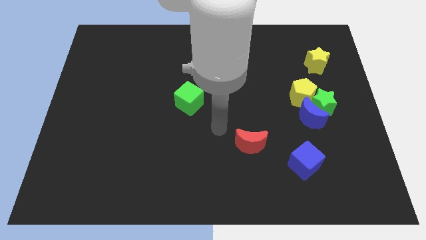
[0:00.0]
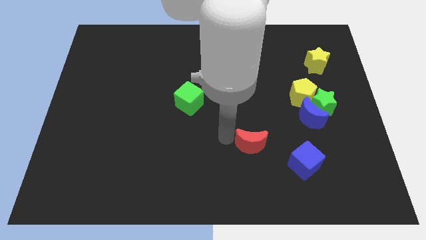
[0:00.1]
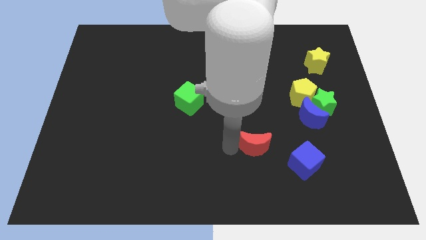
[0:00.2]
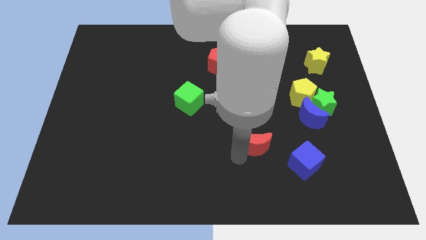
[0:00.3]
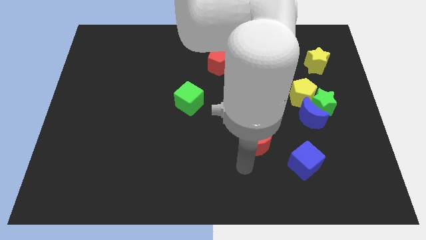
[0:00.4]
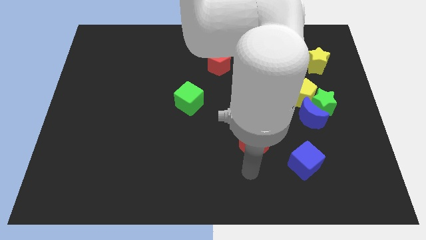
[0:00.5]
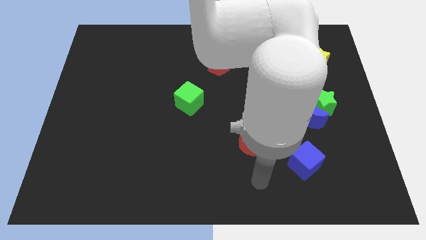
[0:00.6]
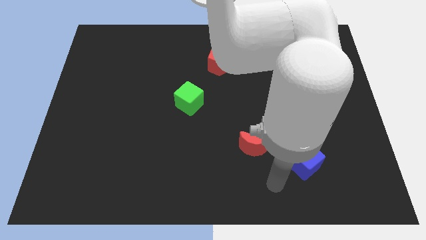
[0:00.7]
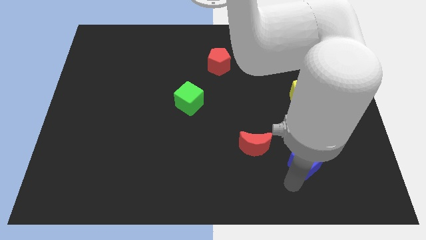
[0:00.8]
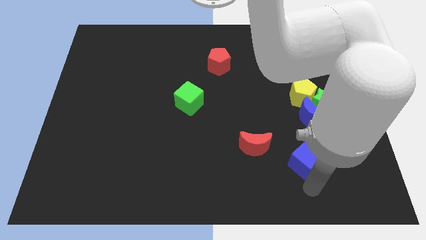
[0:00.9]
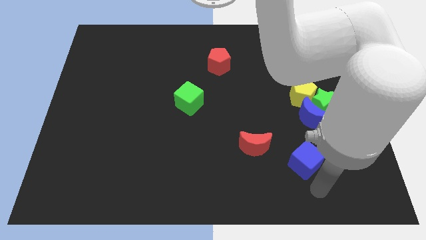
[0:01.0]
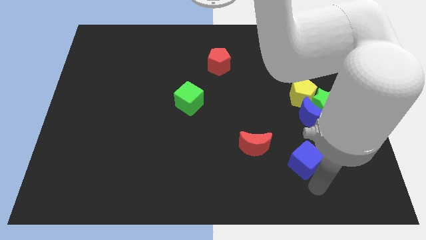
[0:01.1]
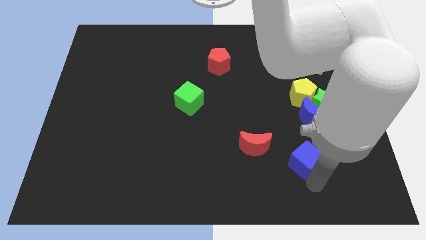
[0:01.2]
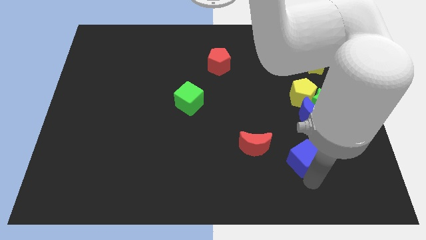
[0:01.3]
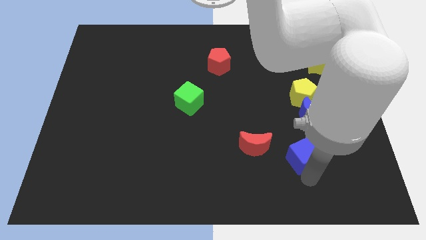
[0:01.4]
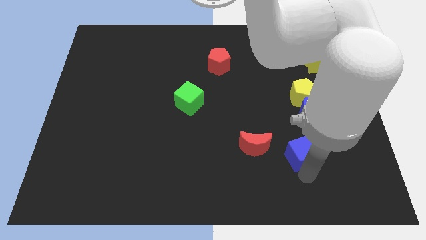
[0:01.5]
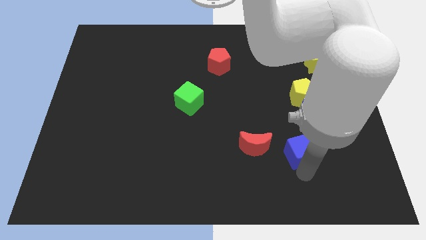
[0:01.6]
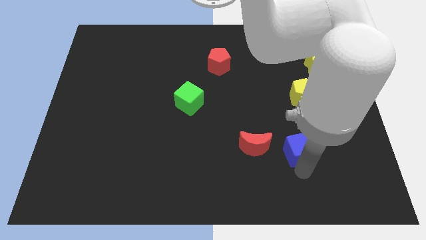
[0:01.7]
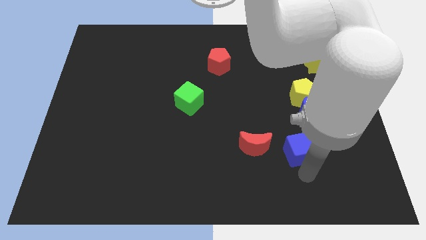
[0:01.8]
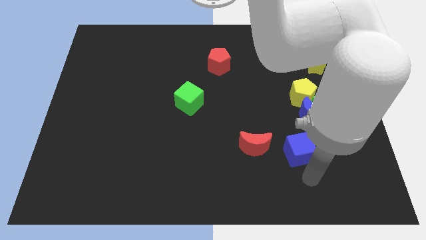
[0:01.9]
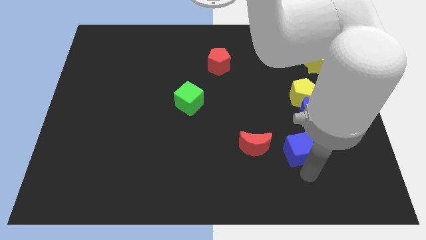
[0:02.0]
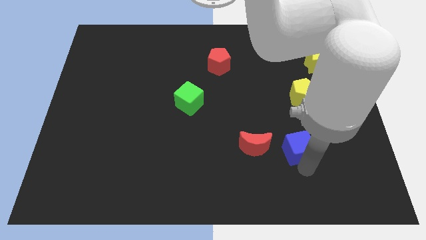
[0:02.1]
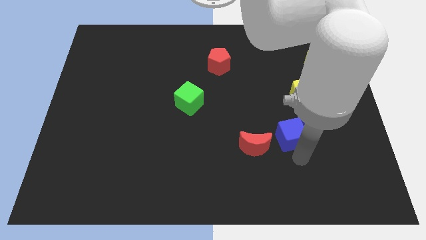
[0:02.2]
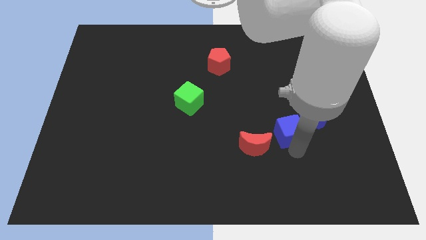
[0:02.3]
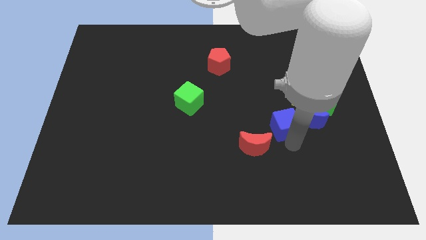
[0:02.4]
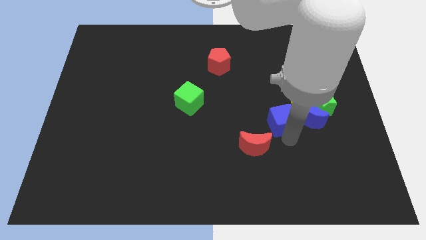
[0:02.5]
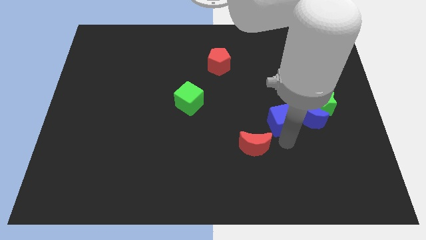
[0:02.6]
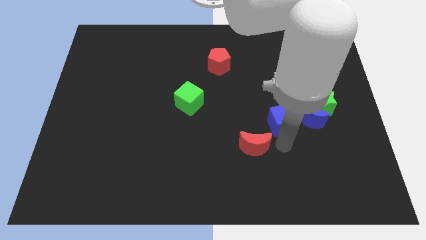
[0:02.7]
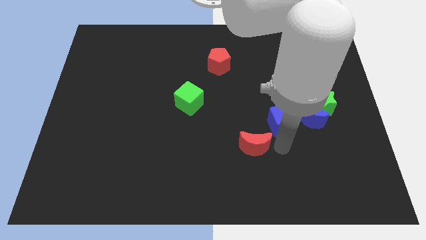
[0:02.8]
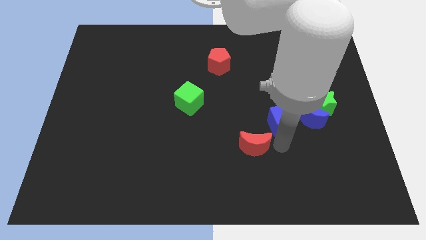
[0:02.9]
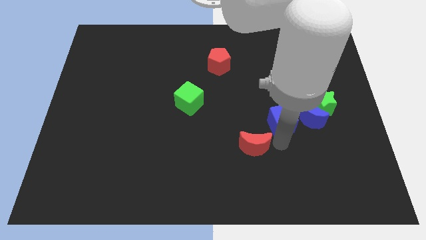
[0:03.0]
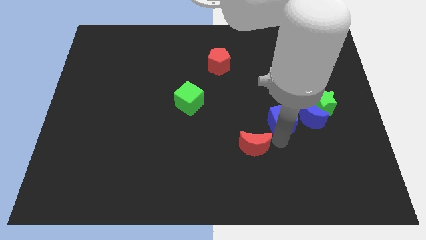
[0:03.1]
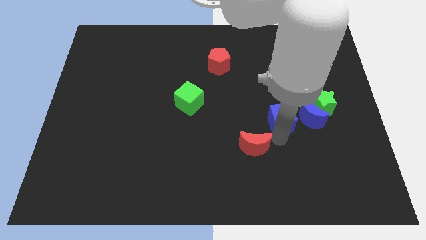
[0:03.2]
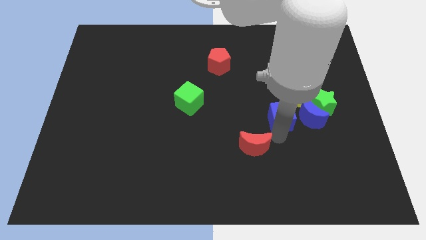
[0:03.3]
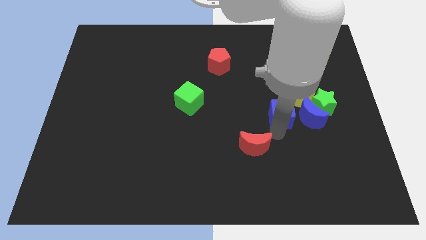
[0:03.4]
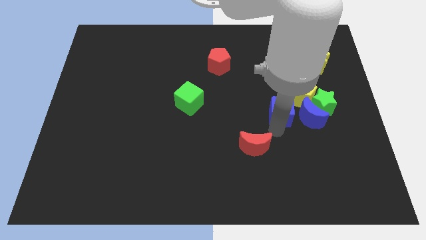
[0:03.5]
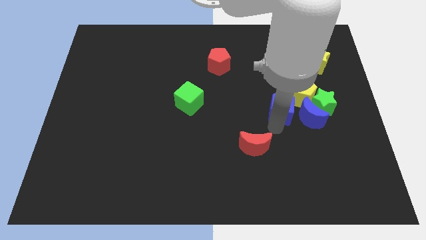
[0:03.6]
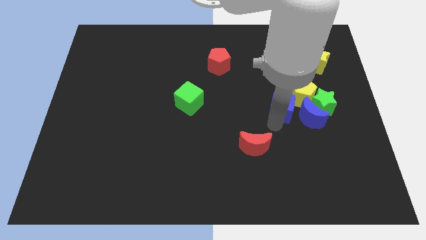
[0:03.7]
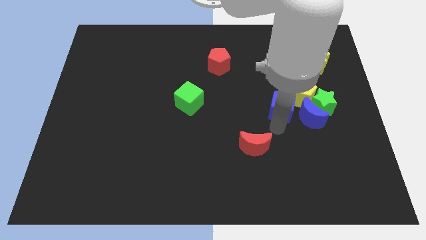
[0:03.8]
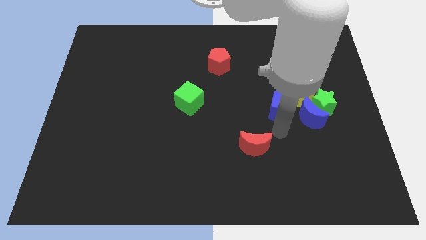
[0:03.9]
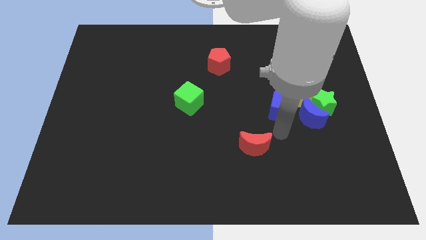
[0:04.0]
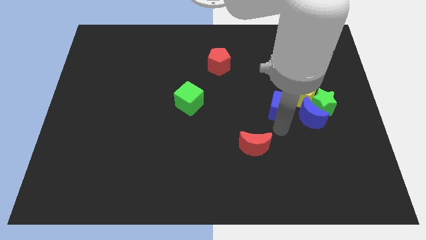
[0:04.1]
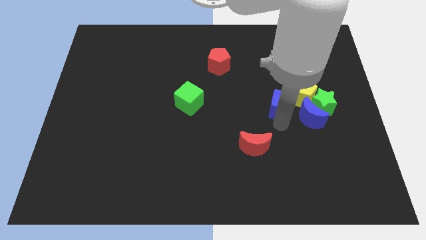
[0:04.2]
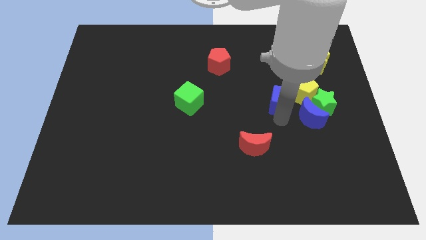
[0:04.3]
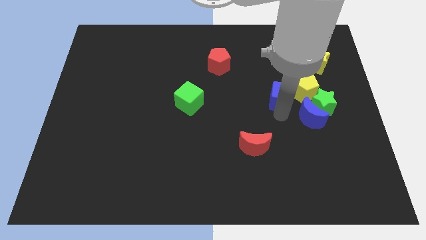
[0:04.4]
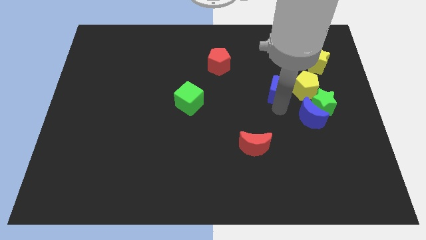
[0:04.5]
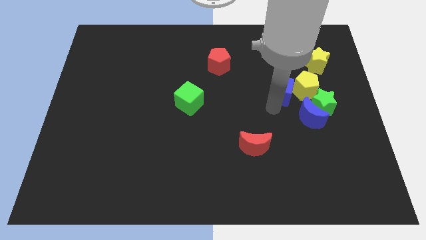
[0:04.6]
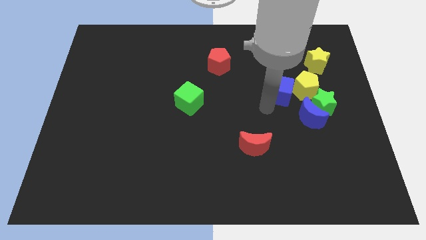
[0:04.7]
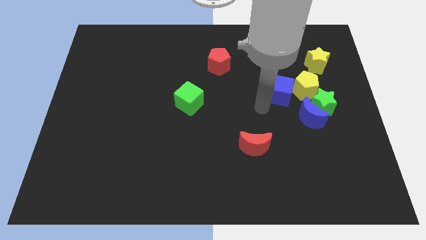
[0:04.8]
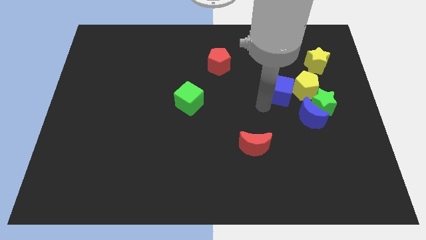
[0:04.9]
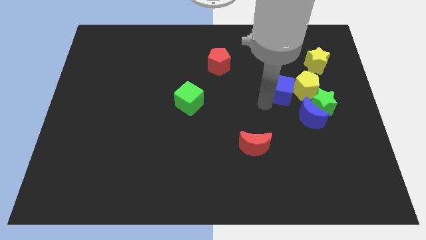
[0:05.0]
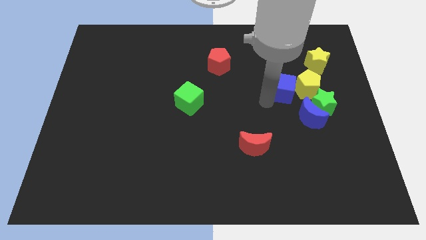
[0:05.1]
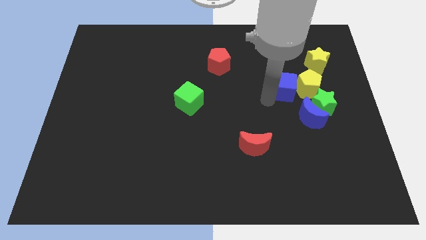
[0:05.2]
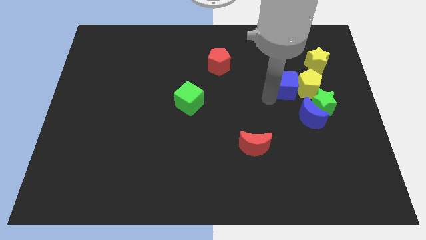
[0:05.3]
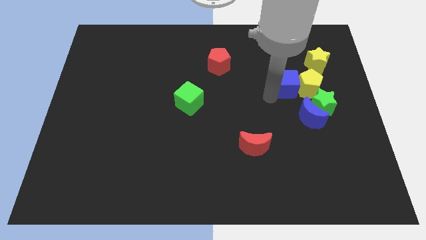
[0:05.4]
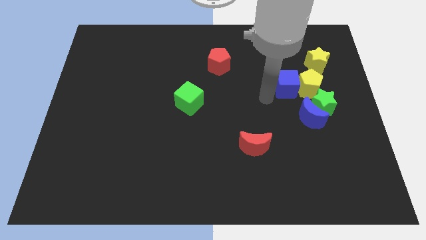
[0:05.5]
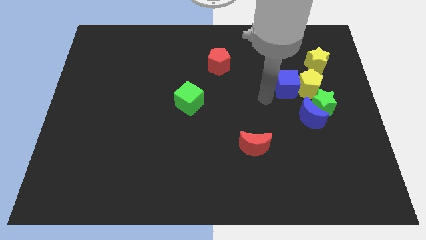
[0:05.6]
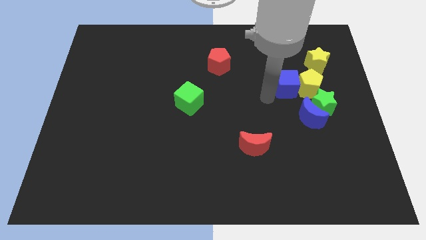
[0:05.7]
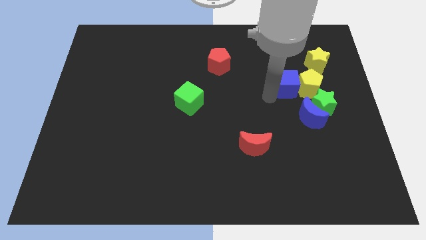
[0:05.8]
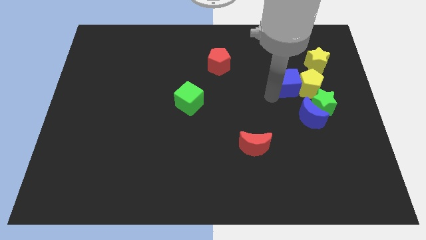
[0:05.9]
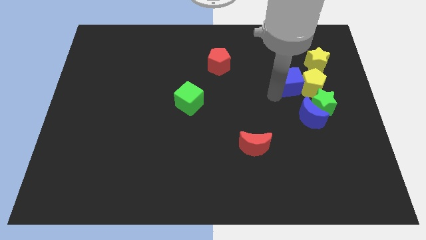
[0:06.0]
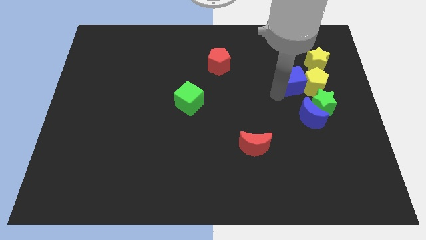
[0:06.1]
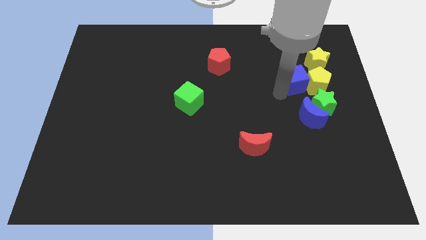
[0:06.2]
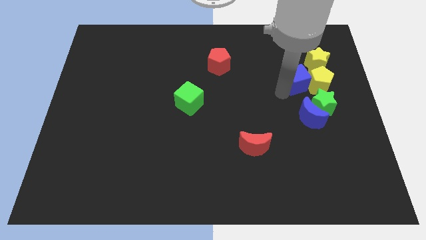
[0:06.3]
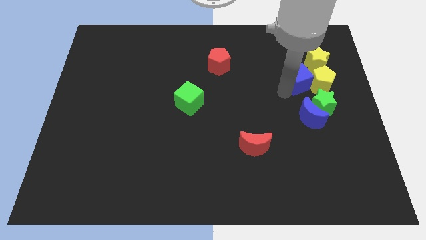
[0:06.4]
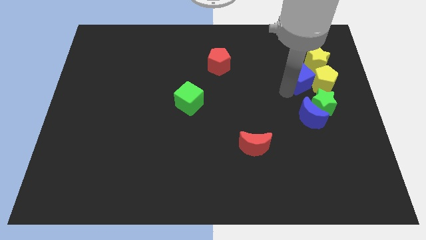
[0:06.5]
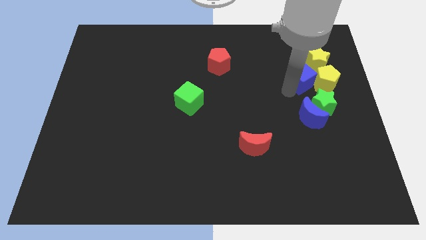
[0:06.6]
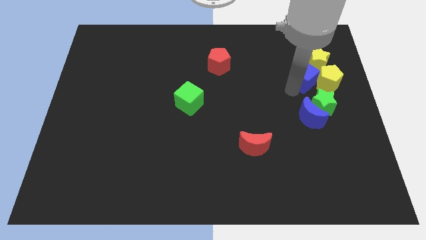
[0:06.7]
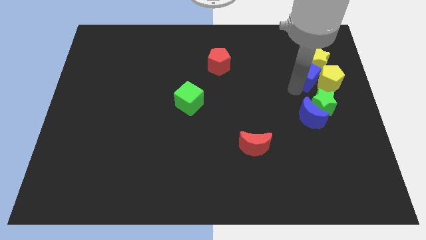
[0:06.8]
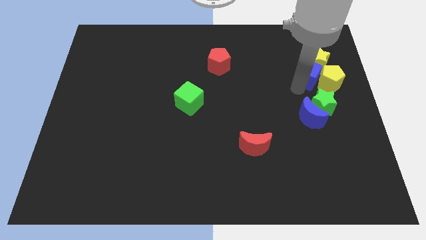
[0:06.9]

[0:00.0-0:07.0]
move the blue cube to the yellow star
